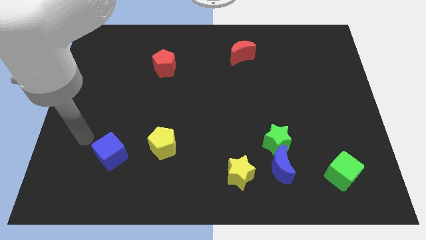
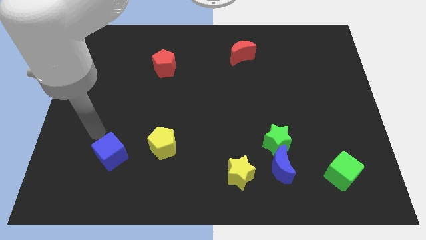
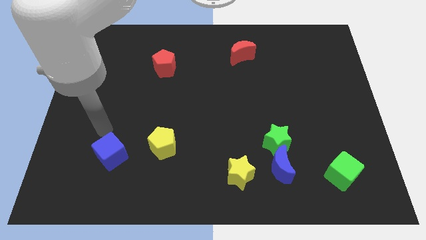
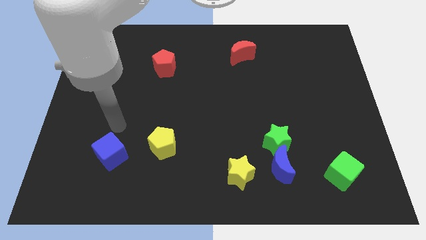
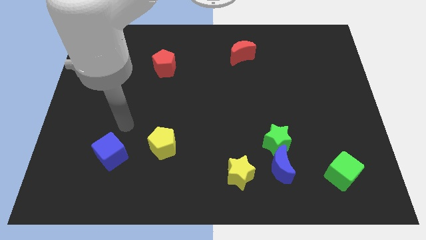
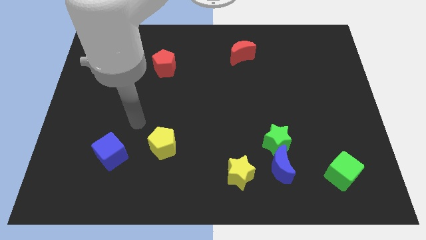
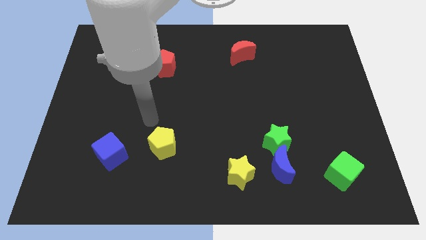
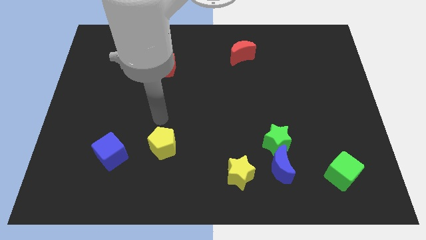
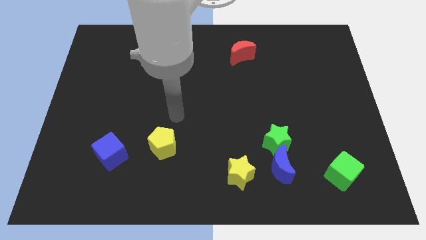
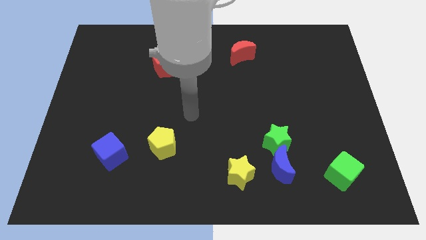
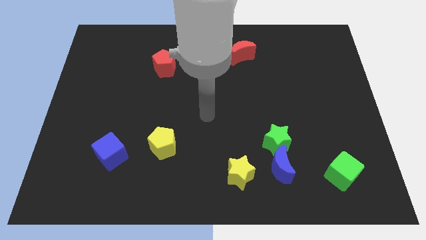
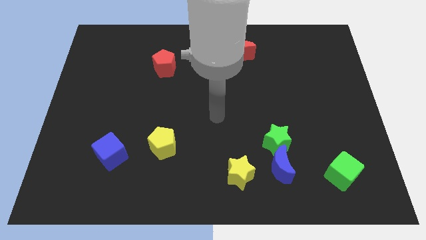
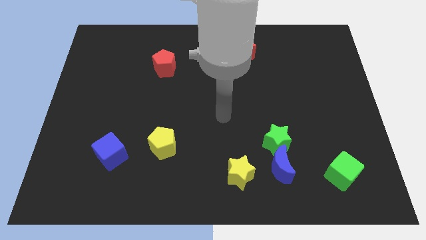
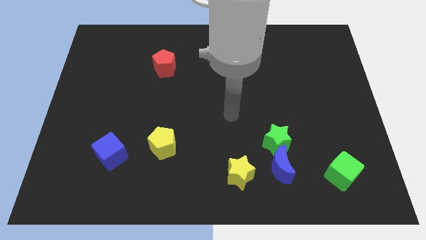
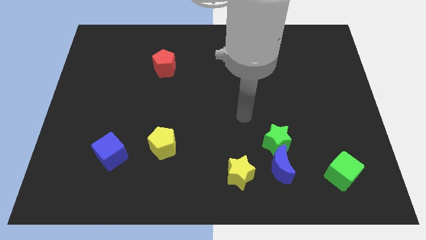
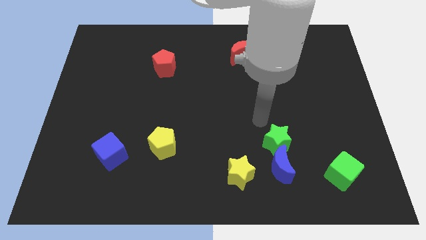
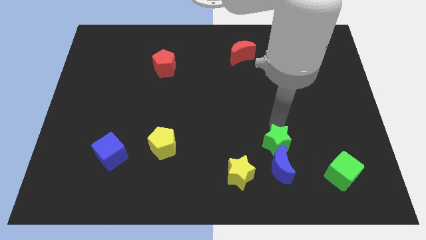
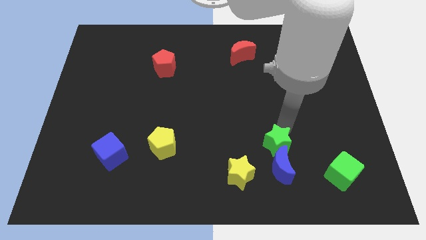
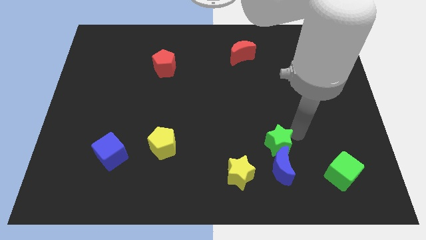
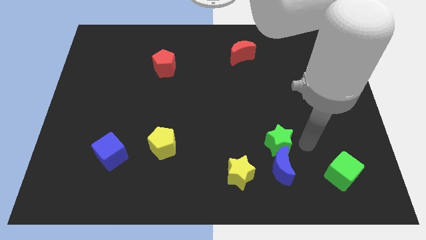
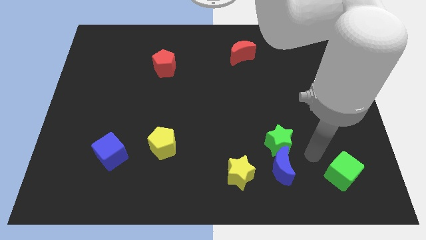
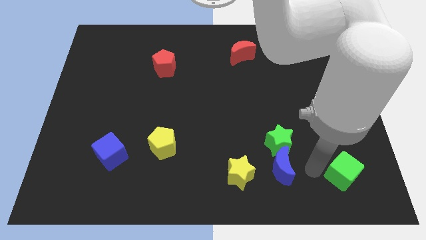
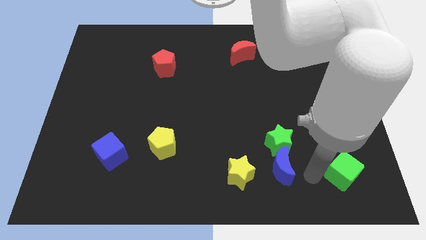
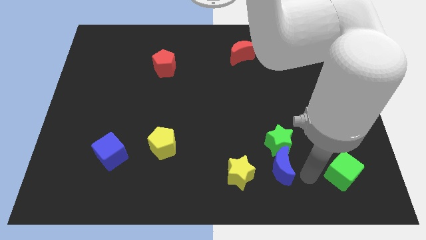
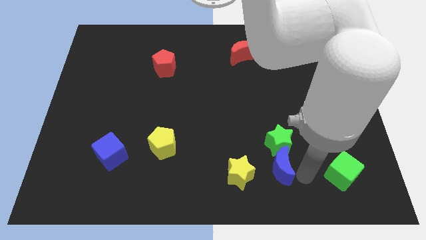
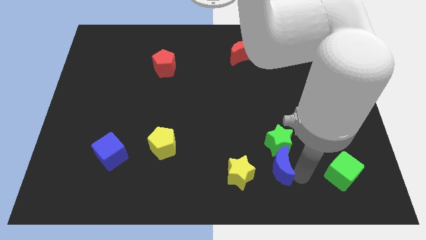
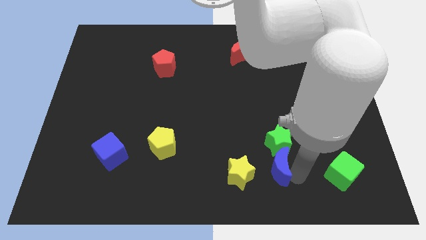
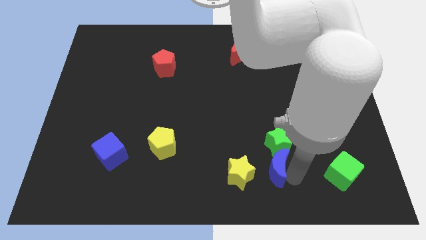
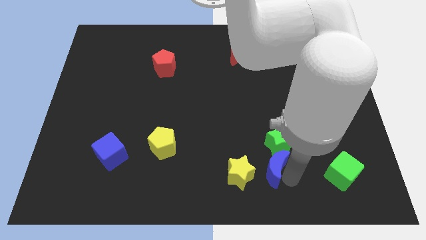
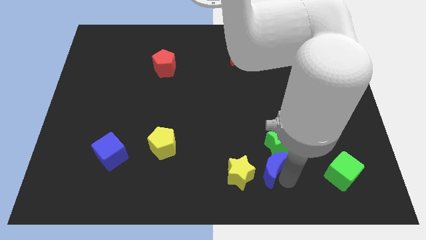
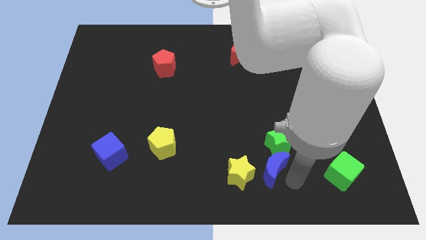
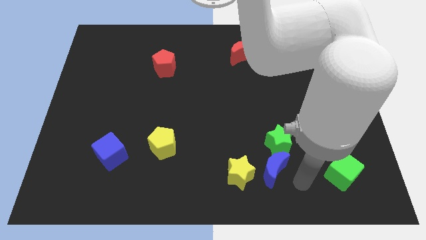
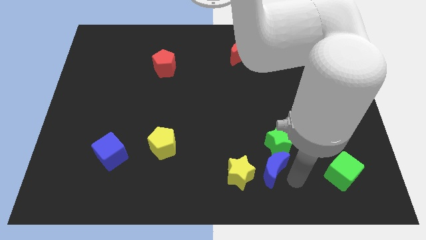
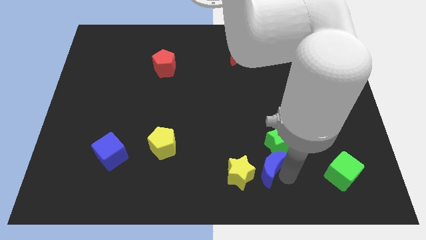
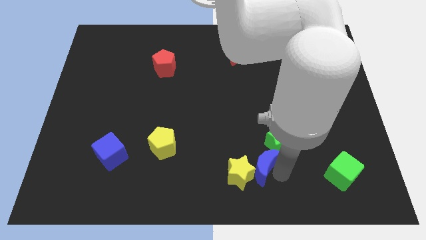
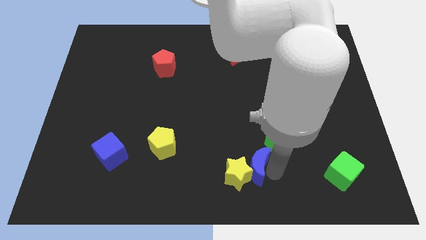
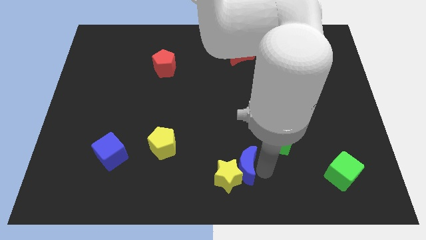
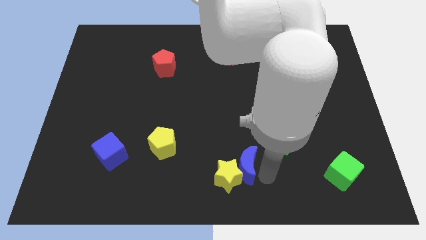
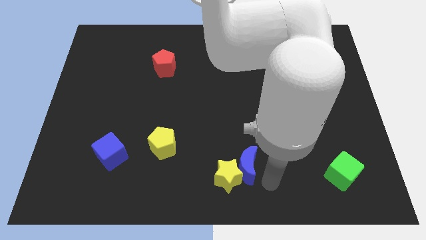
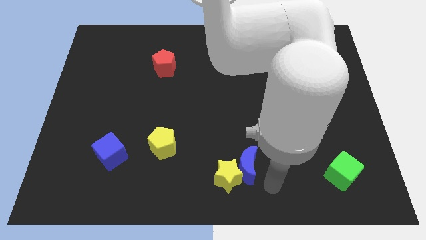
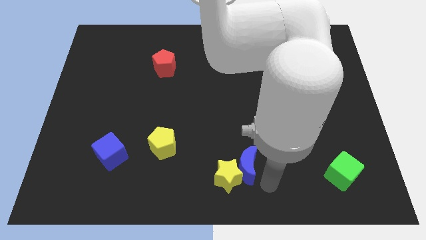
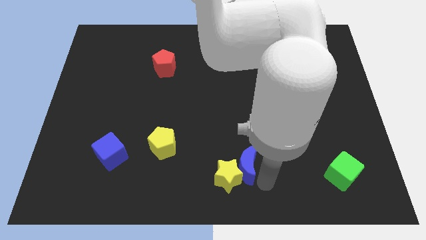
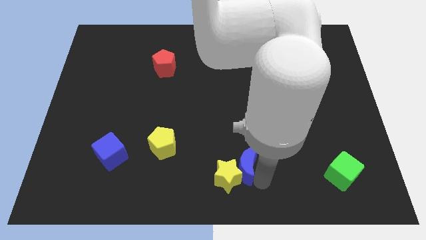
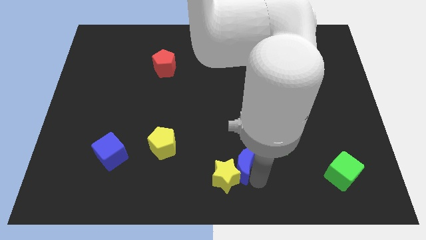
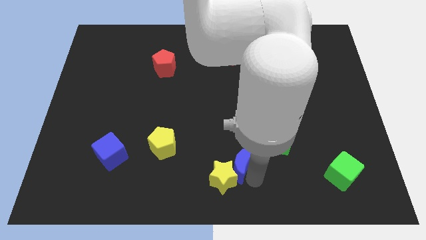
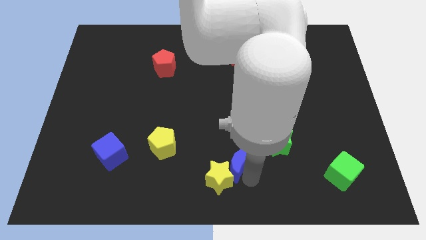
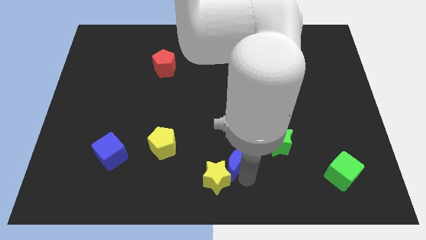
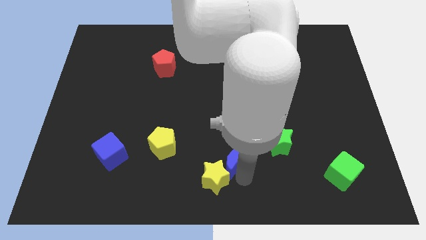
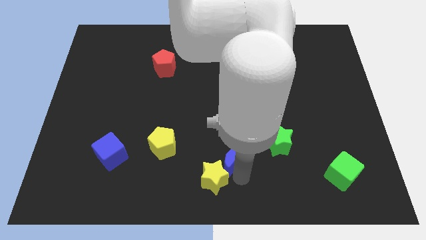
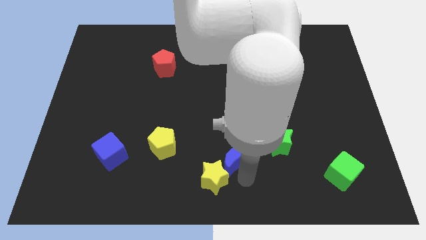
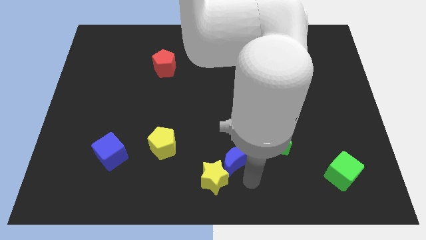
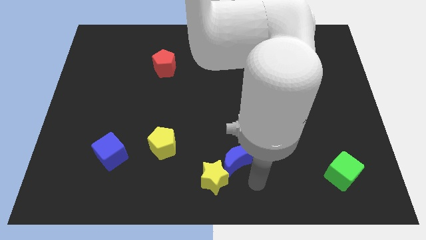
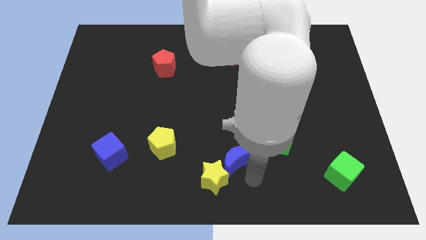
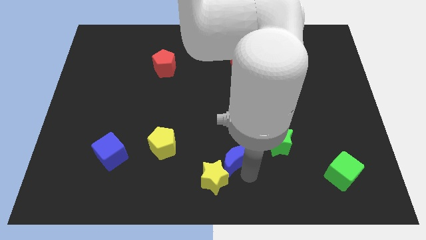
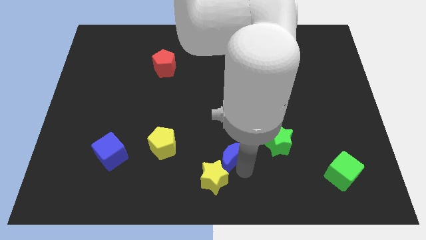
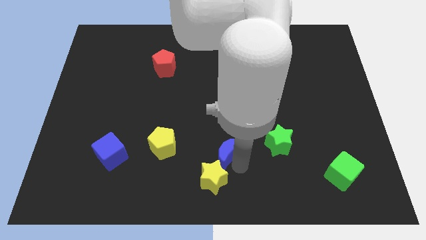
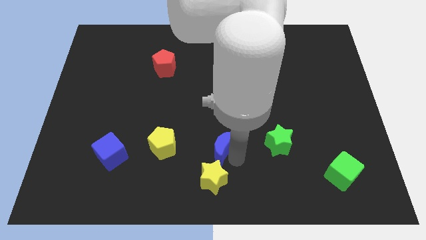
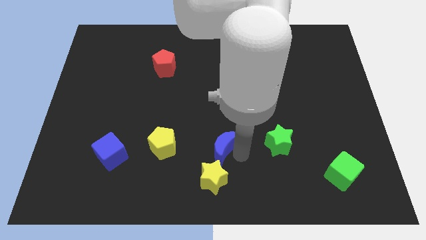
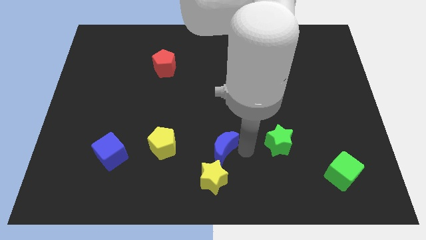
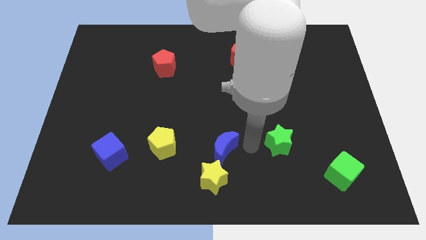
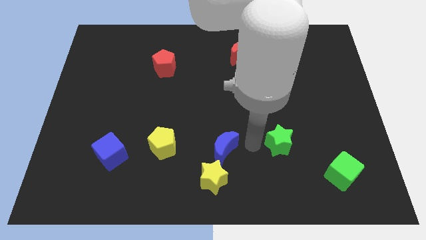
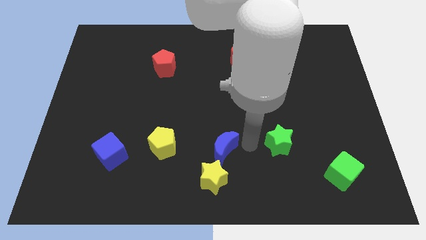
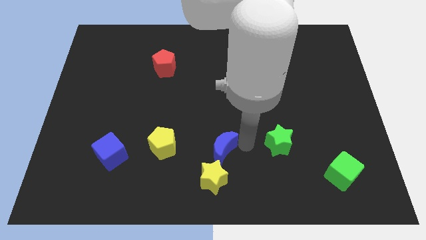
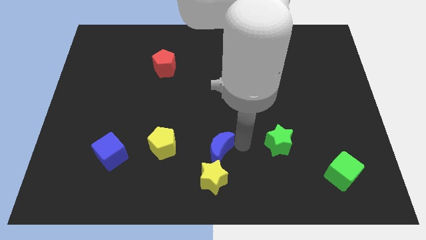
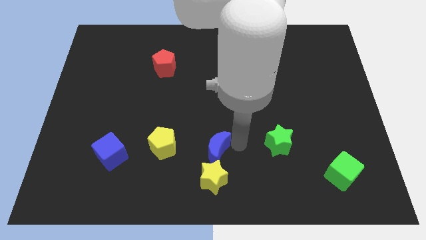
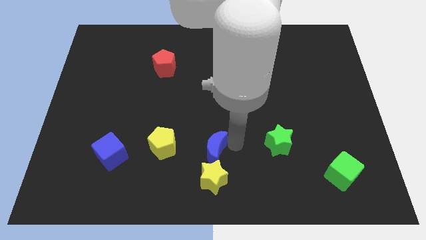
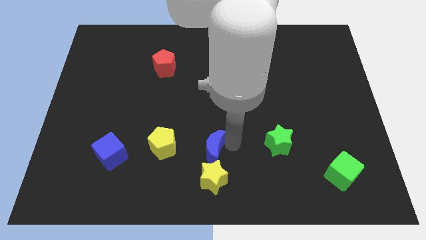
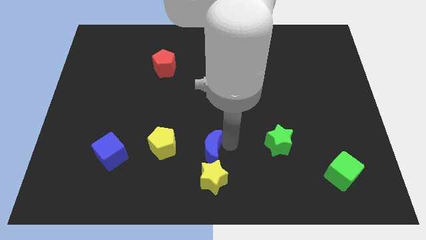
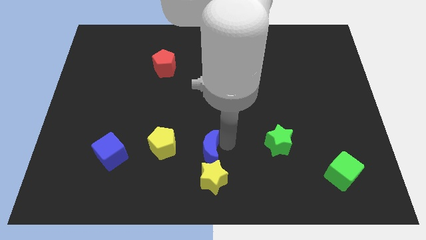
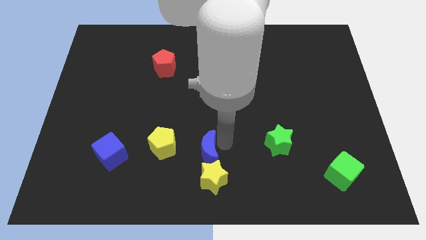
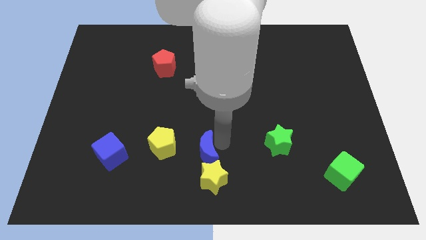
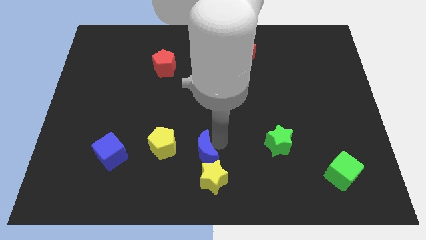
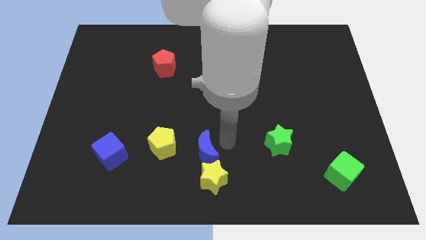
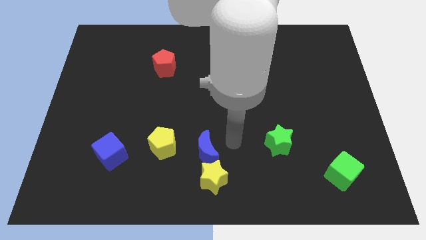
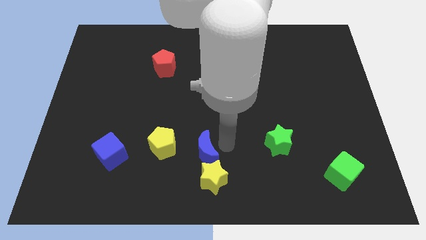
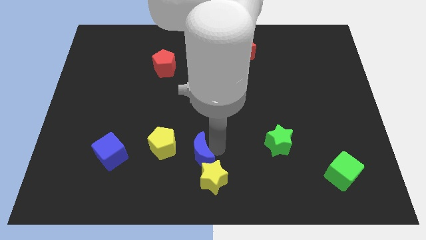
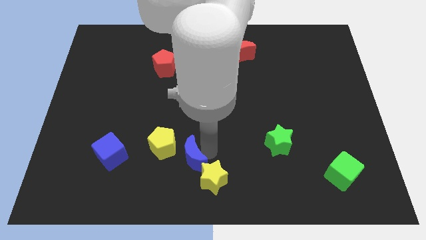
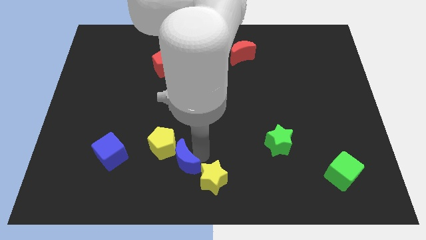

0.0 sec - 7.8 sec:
slide the blue moon to the left
